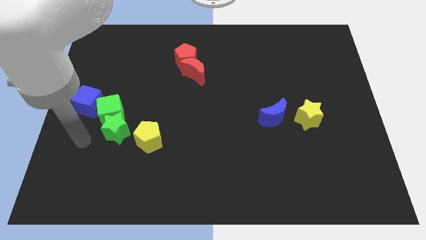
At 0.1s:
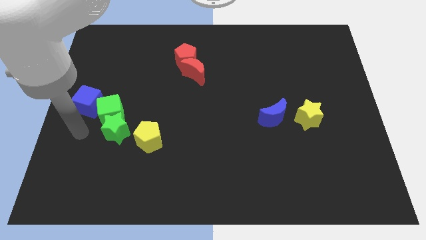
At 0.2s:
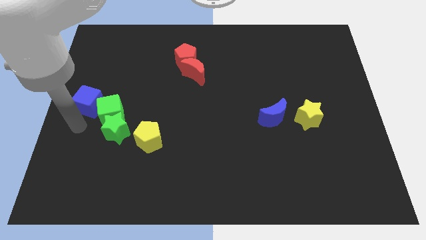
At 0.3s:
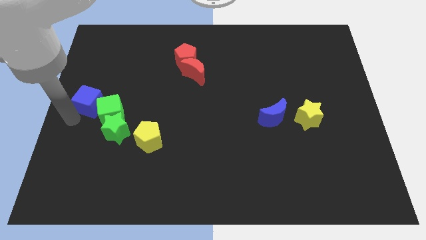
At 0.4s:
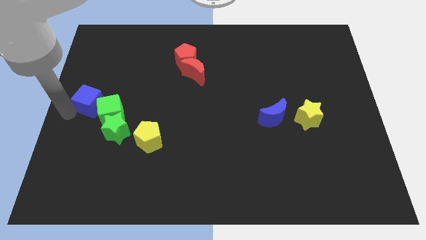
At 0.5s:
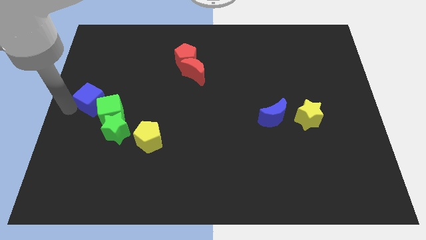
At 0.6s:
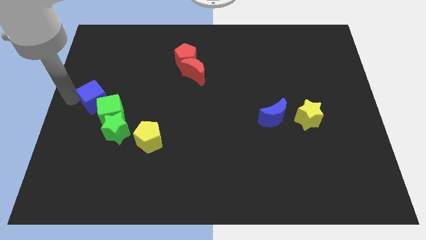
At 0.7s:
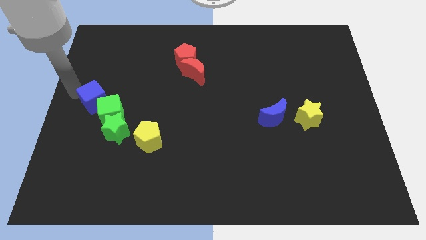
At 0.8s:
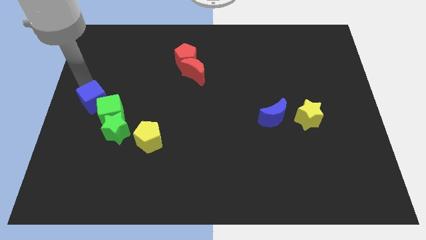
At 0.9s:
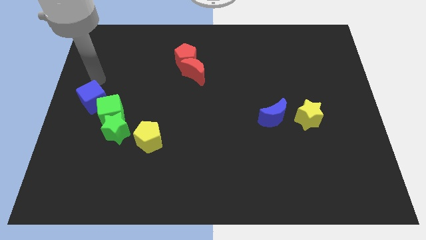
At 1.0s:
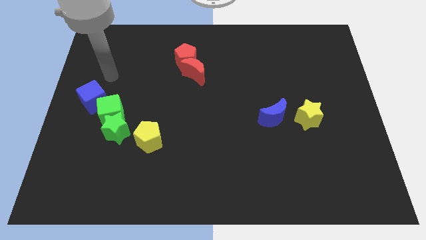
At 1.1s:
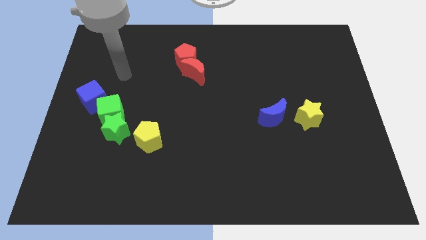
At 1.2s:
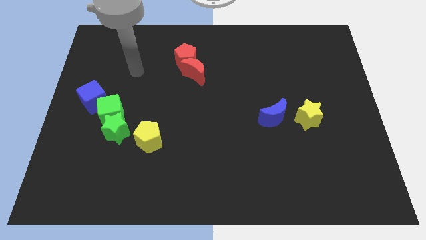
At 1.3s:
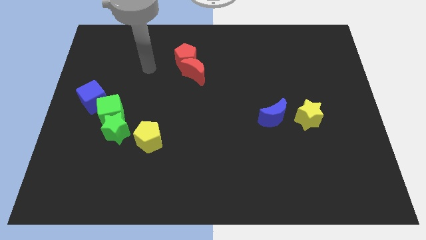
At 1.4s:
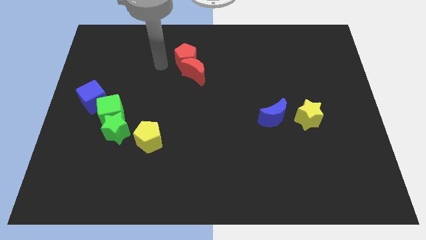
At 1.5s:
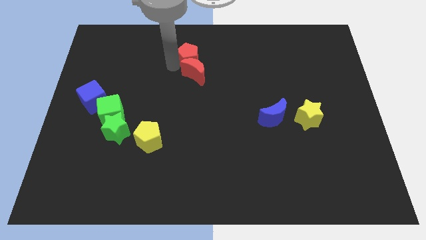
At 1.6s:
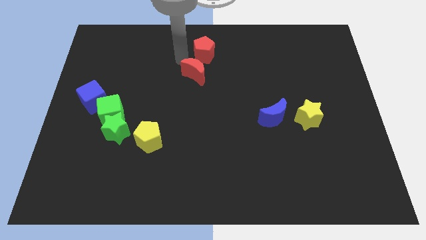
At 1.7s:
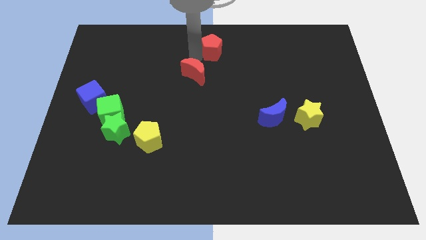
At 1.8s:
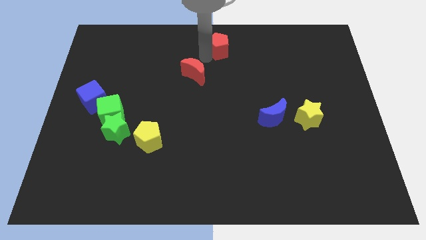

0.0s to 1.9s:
move the red moon away from the red pentagon

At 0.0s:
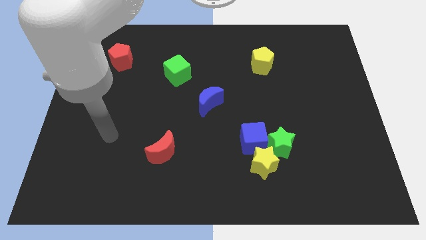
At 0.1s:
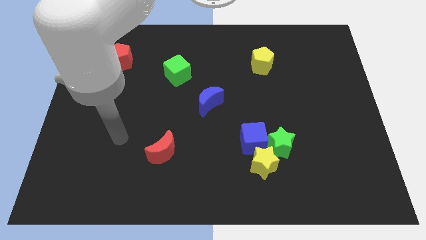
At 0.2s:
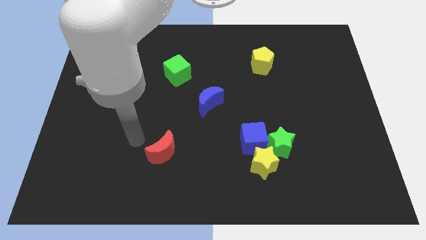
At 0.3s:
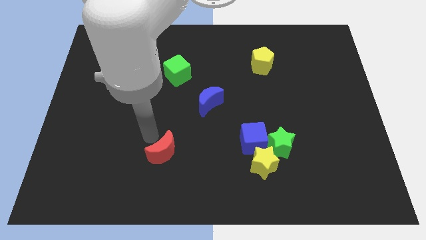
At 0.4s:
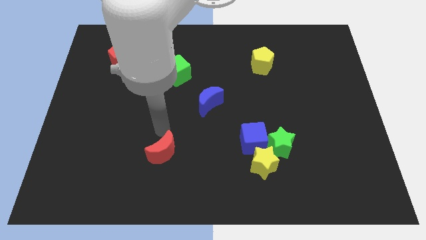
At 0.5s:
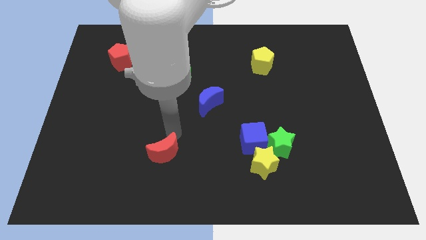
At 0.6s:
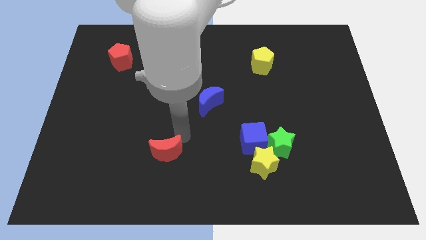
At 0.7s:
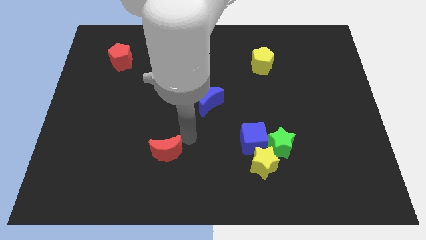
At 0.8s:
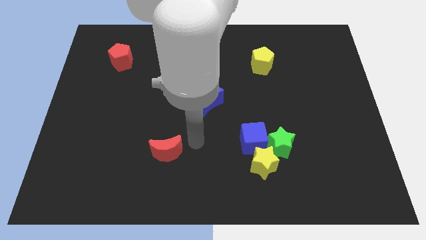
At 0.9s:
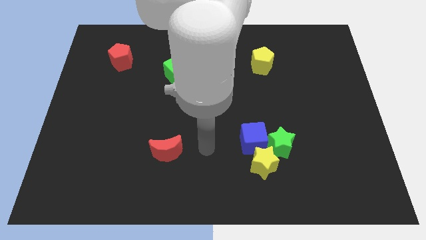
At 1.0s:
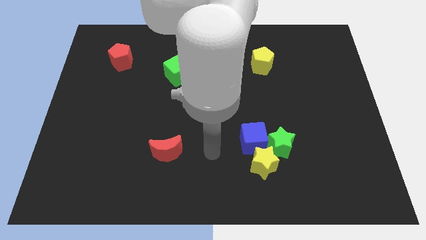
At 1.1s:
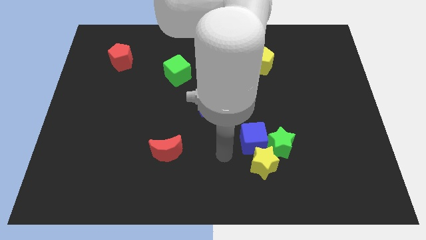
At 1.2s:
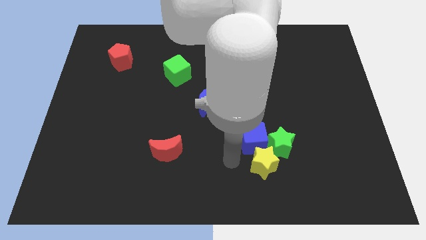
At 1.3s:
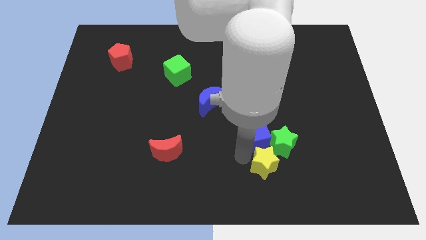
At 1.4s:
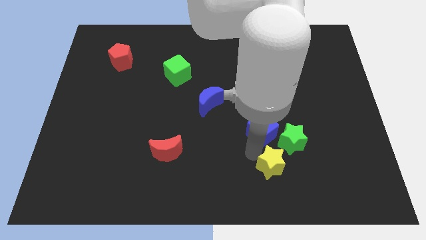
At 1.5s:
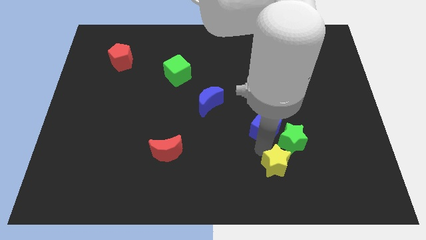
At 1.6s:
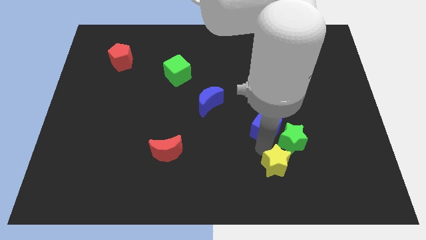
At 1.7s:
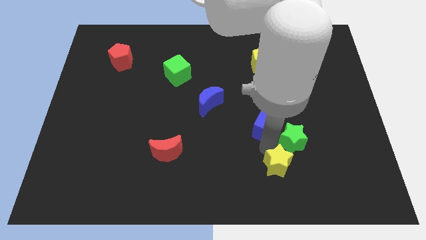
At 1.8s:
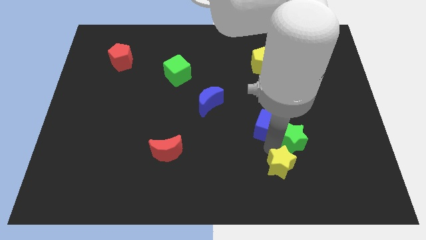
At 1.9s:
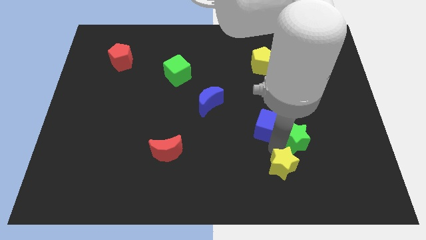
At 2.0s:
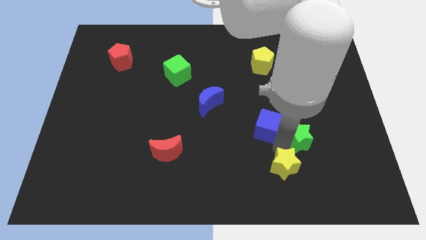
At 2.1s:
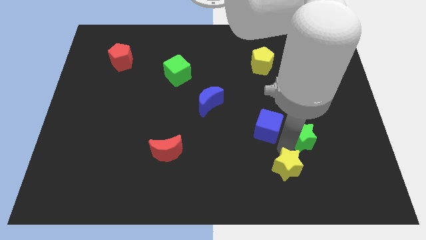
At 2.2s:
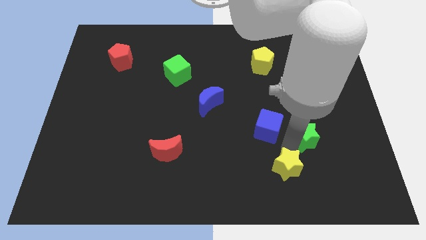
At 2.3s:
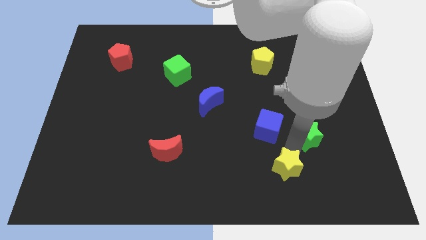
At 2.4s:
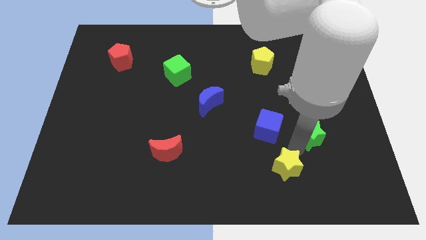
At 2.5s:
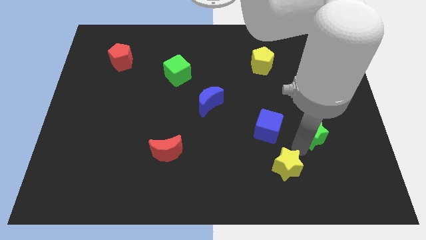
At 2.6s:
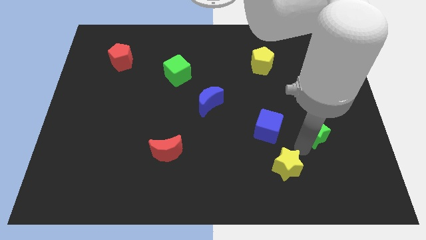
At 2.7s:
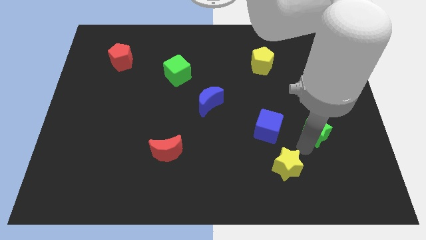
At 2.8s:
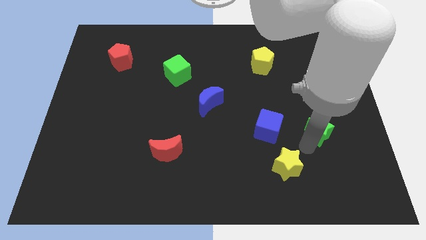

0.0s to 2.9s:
separate the green star from the yellow star and blue cube

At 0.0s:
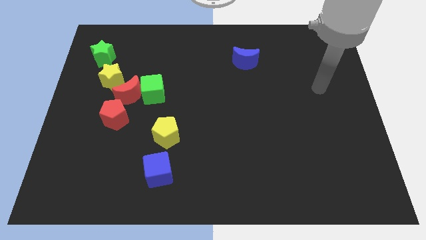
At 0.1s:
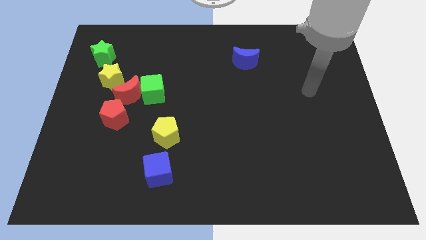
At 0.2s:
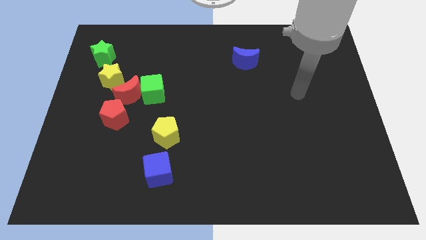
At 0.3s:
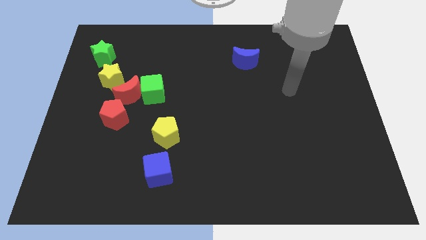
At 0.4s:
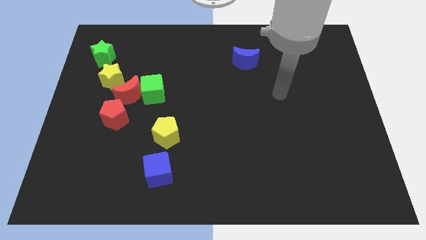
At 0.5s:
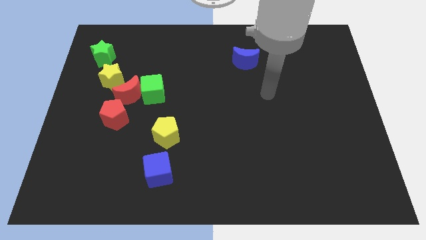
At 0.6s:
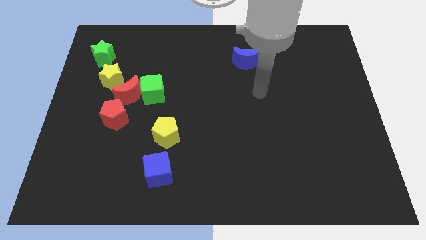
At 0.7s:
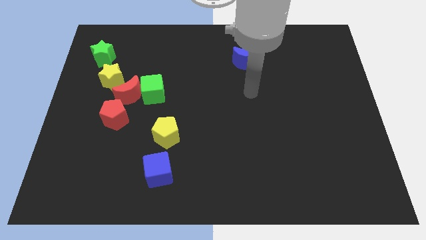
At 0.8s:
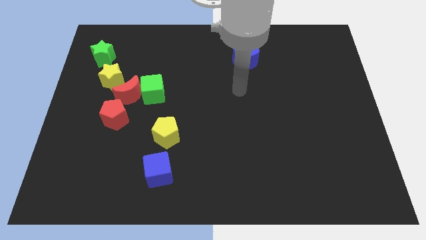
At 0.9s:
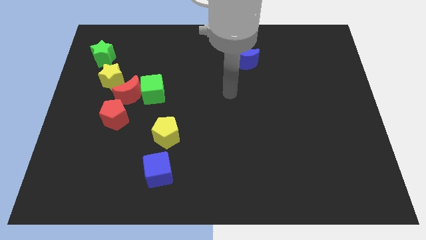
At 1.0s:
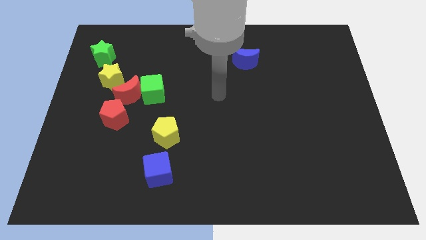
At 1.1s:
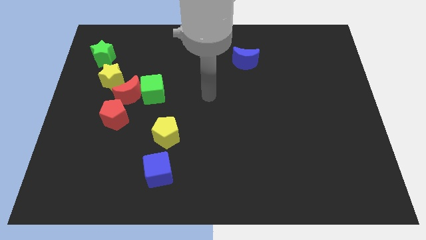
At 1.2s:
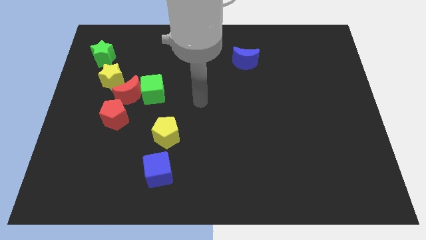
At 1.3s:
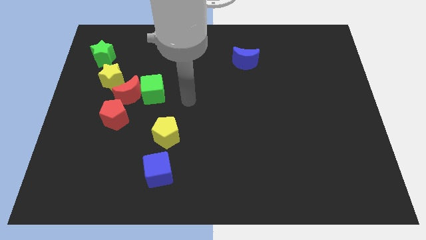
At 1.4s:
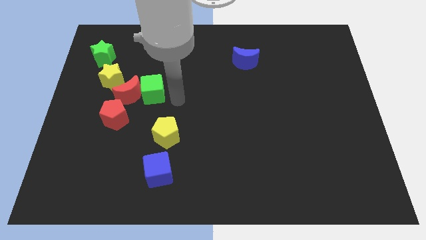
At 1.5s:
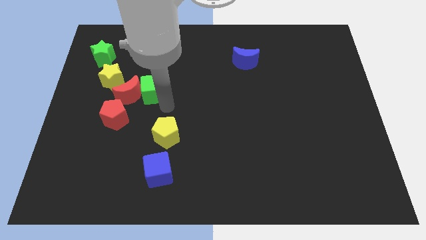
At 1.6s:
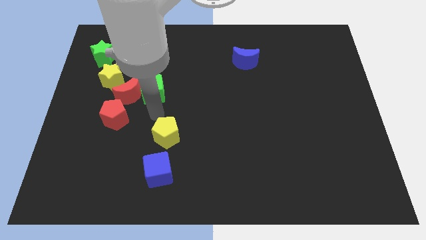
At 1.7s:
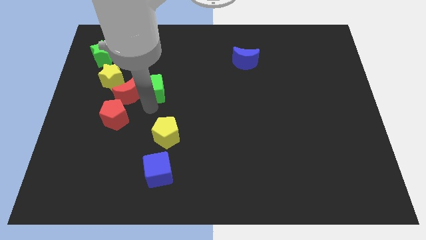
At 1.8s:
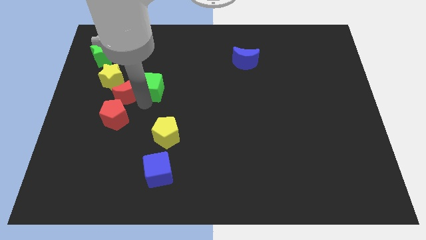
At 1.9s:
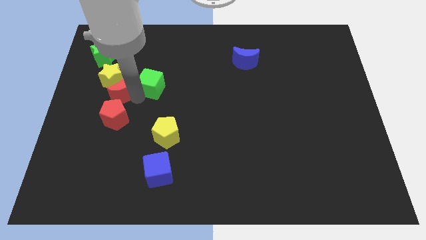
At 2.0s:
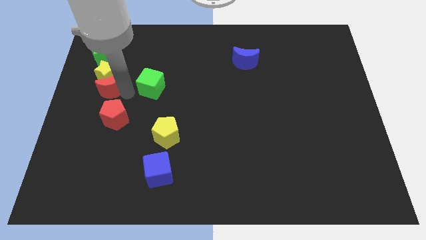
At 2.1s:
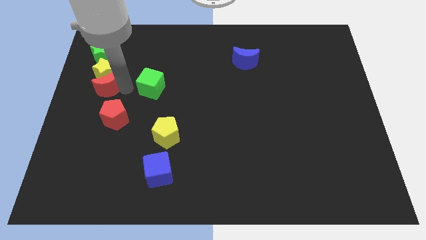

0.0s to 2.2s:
separate the green cube from the red moon

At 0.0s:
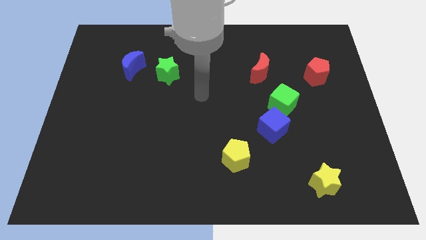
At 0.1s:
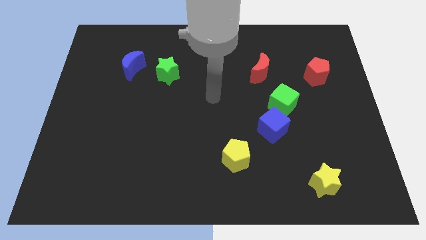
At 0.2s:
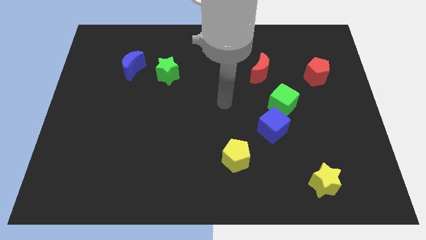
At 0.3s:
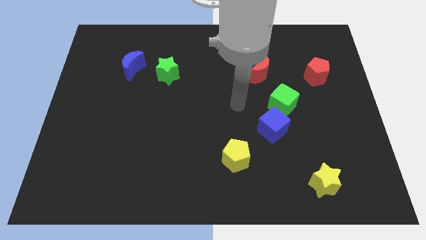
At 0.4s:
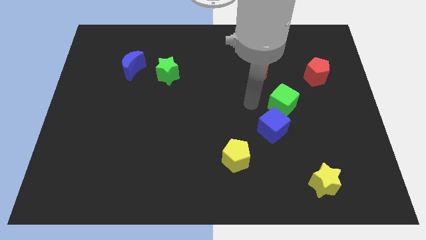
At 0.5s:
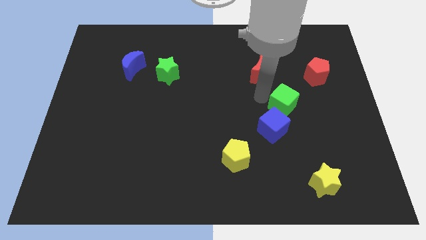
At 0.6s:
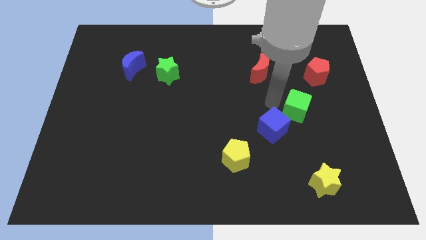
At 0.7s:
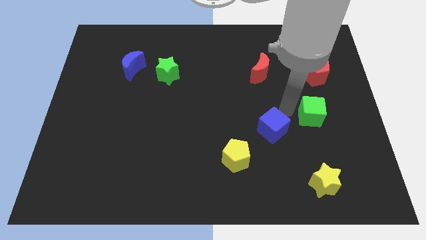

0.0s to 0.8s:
move the blue cube away from the green cube

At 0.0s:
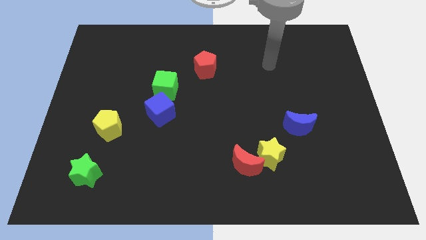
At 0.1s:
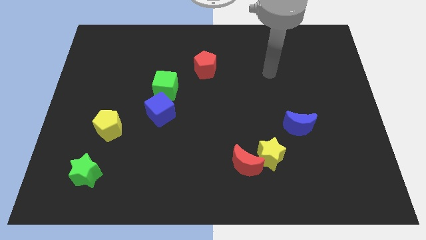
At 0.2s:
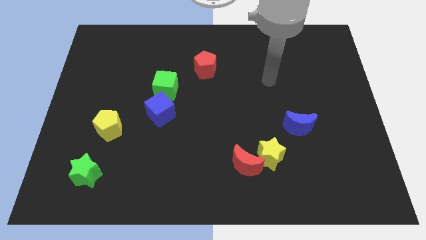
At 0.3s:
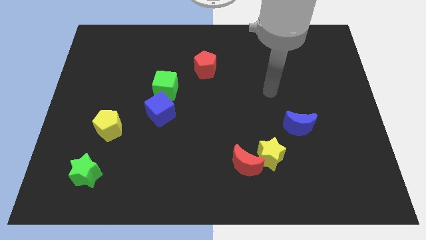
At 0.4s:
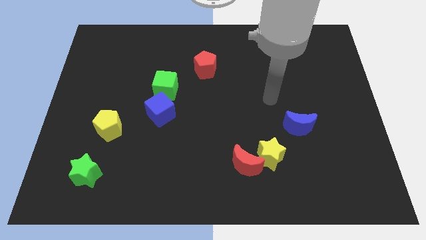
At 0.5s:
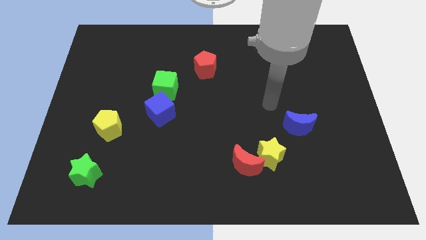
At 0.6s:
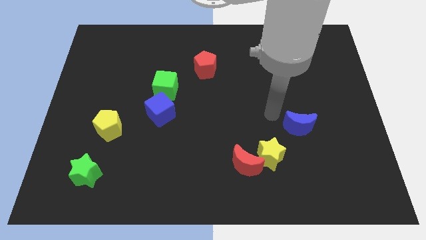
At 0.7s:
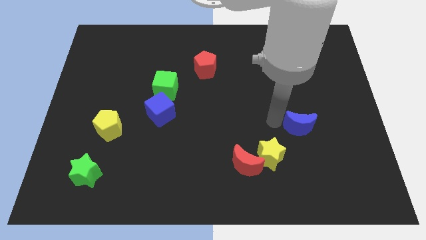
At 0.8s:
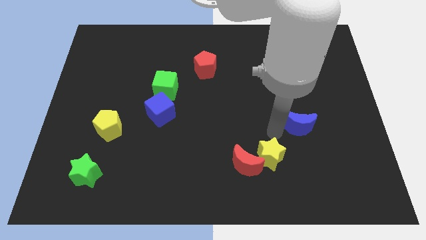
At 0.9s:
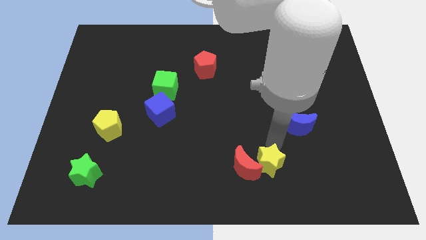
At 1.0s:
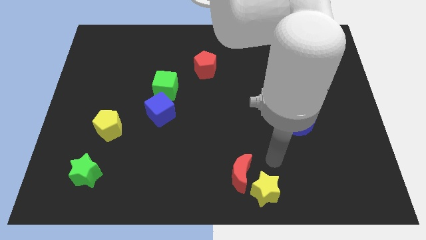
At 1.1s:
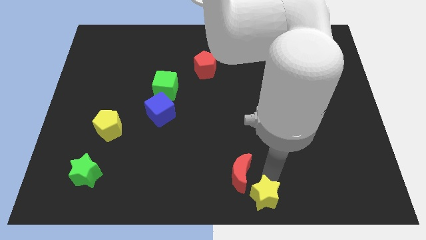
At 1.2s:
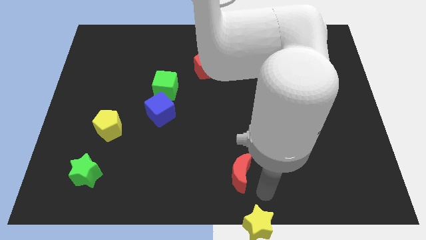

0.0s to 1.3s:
separate the red moon from the yellow star

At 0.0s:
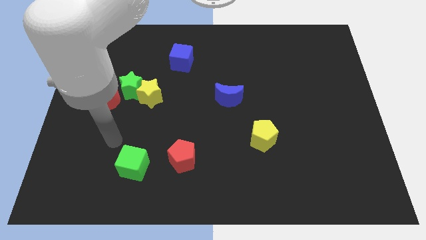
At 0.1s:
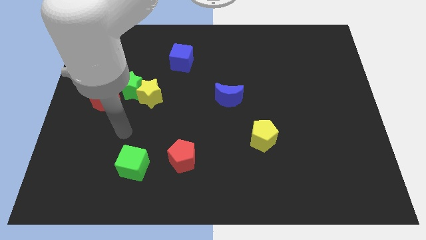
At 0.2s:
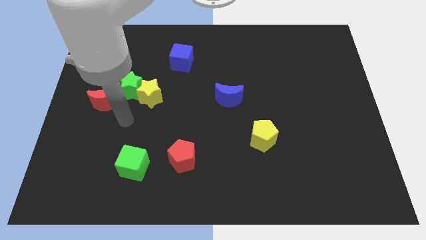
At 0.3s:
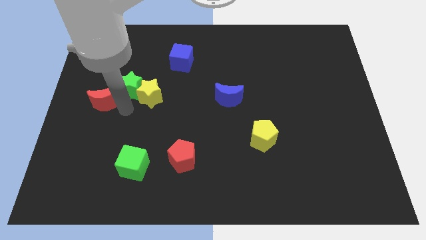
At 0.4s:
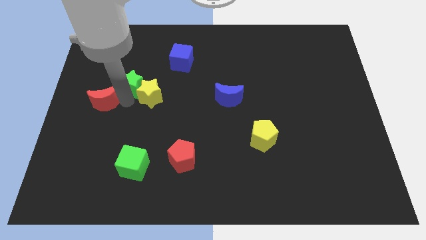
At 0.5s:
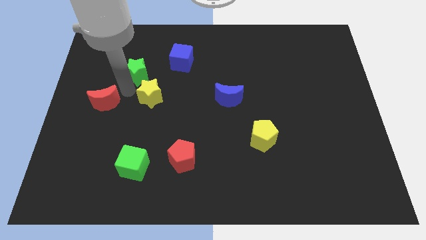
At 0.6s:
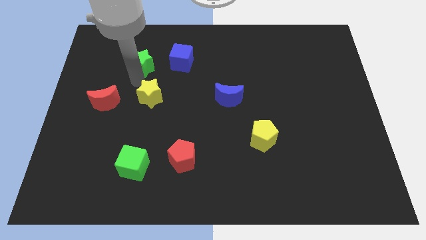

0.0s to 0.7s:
move the yellow star away from the green star
